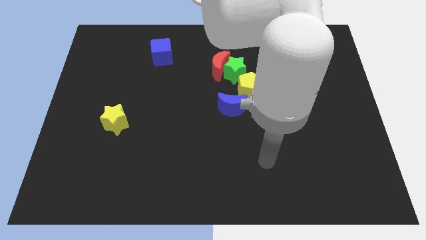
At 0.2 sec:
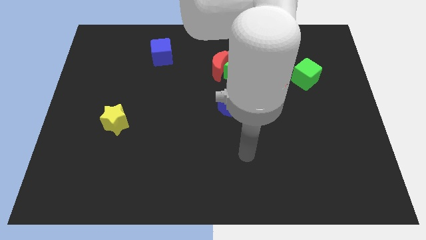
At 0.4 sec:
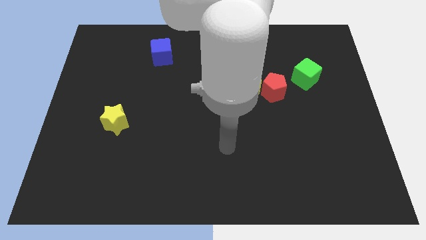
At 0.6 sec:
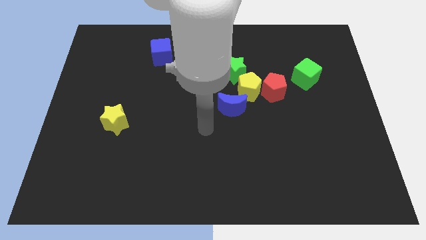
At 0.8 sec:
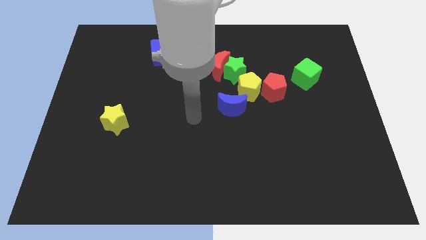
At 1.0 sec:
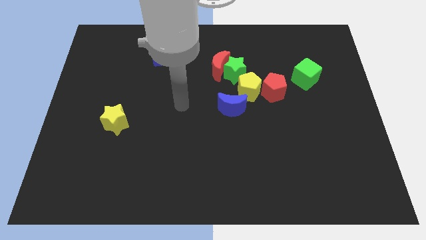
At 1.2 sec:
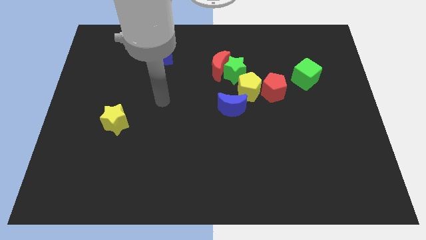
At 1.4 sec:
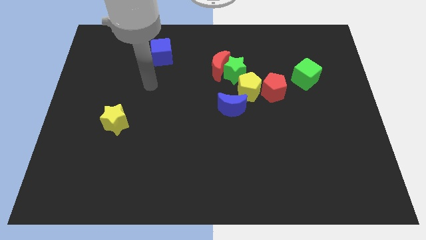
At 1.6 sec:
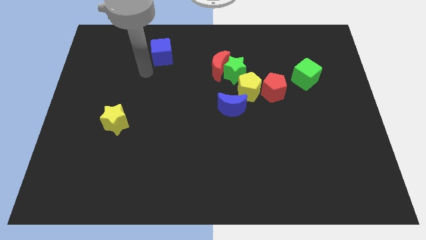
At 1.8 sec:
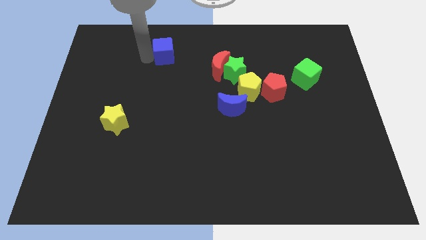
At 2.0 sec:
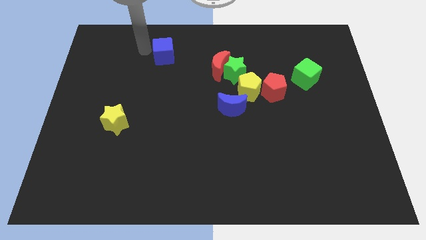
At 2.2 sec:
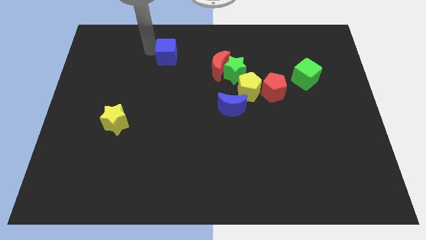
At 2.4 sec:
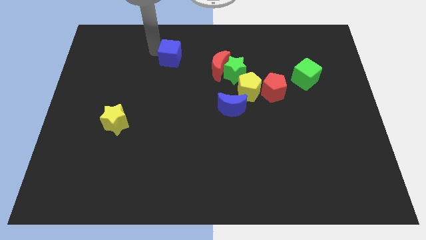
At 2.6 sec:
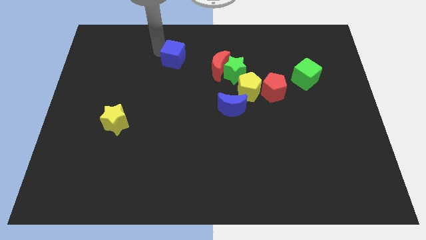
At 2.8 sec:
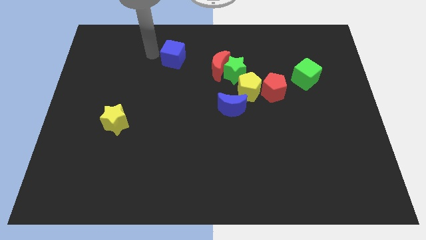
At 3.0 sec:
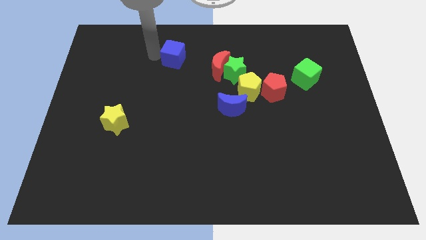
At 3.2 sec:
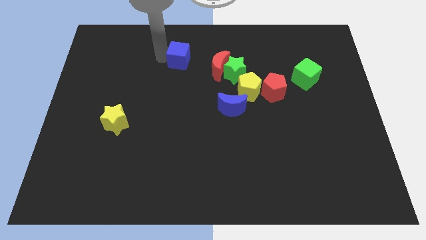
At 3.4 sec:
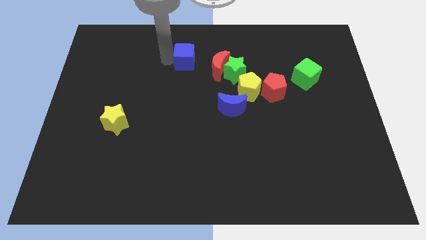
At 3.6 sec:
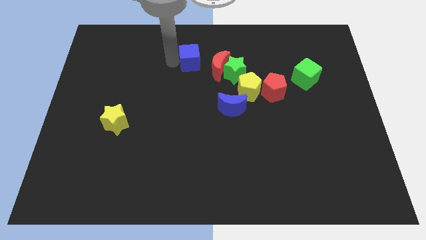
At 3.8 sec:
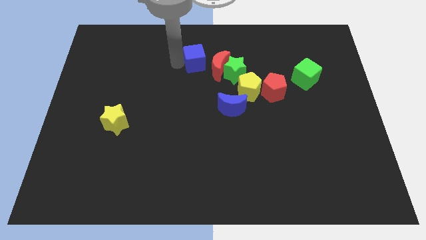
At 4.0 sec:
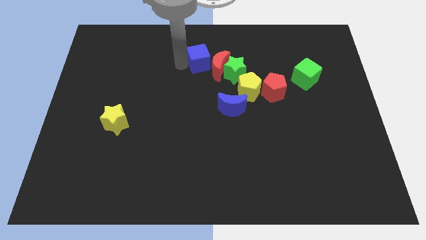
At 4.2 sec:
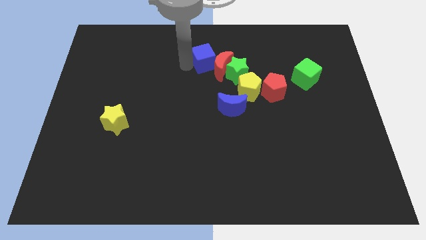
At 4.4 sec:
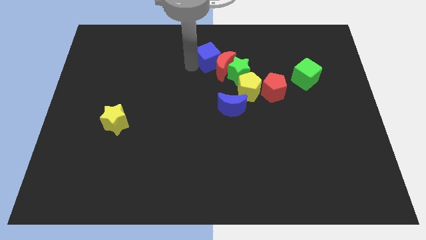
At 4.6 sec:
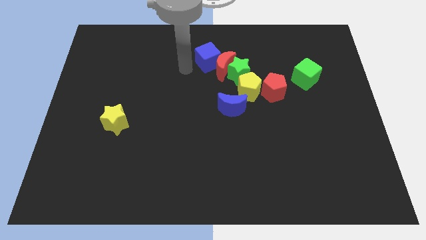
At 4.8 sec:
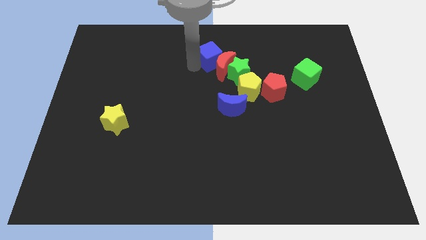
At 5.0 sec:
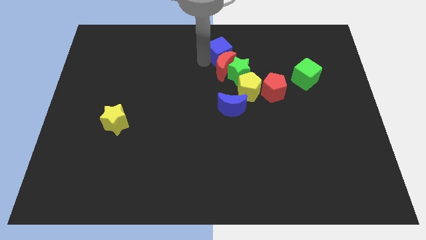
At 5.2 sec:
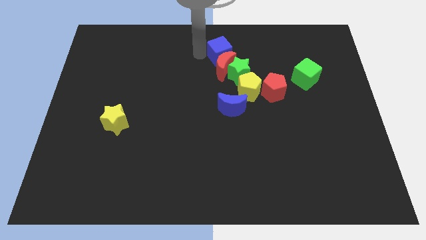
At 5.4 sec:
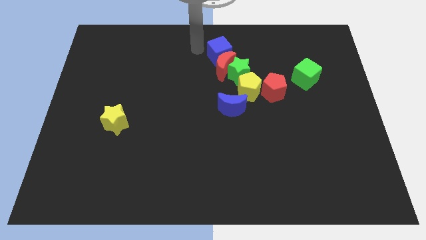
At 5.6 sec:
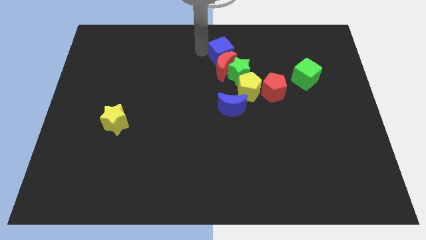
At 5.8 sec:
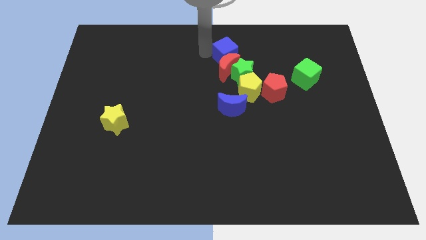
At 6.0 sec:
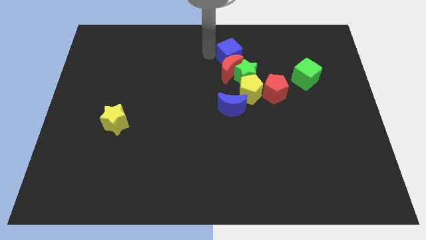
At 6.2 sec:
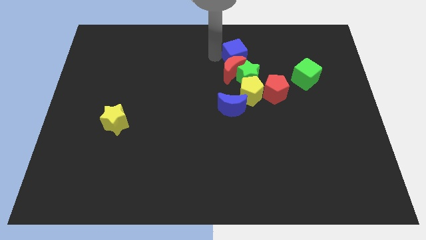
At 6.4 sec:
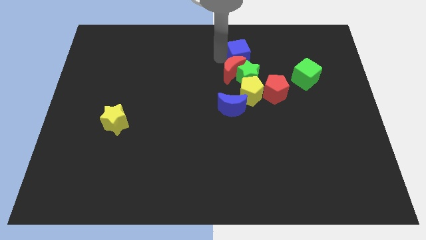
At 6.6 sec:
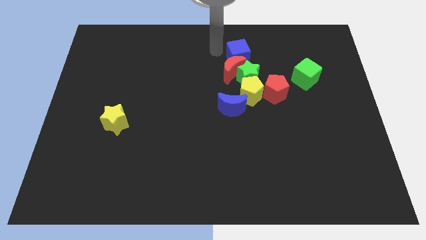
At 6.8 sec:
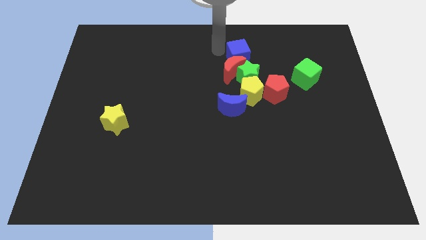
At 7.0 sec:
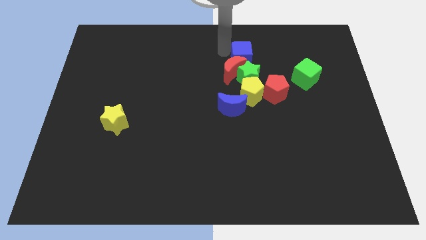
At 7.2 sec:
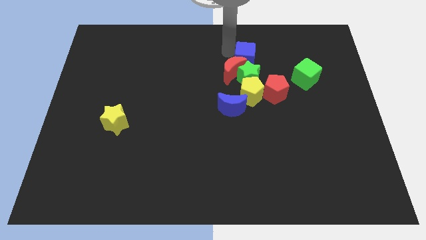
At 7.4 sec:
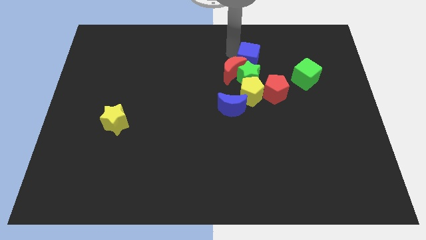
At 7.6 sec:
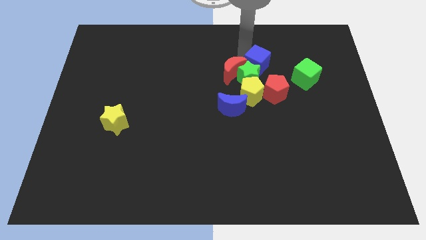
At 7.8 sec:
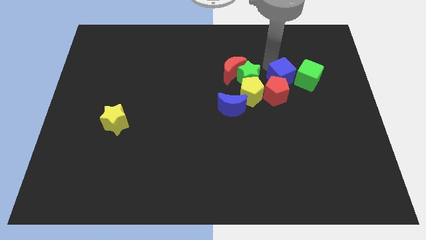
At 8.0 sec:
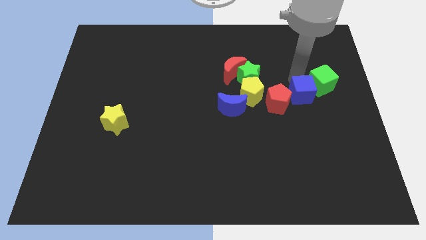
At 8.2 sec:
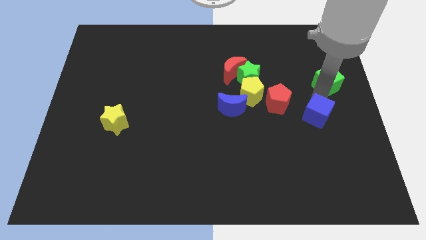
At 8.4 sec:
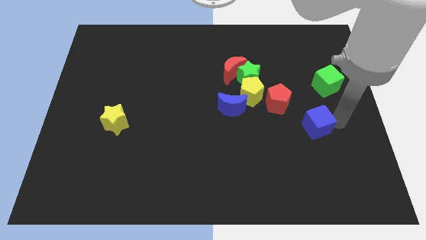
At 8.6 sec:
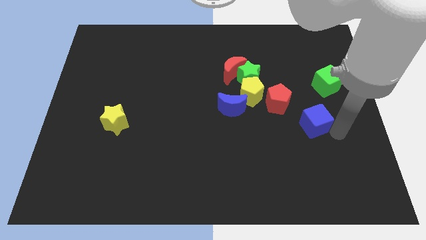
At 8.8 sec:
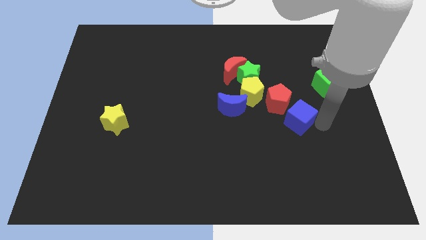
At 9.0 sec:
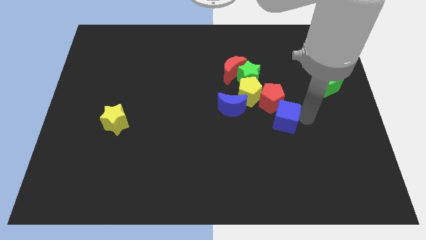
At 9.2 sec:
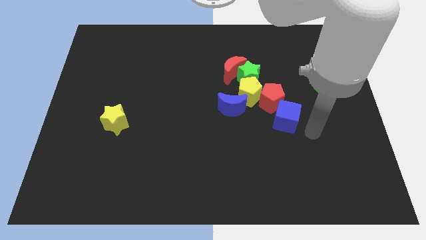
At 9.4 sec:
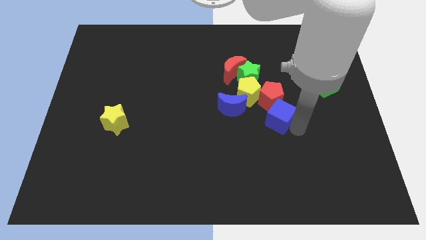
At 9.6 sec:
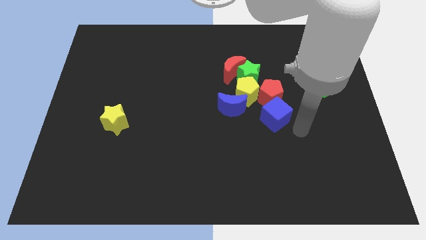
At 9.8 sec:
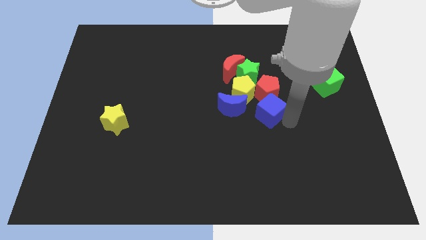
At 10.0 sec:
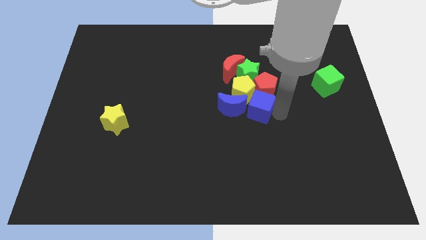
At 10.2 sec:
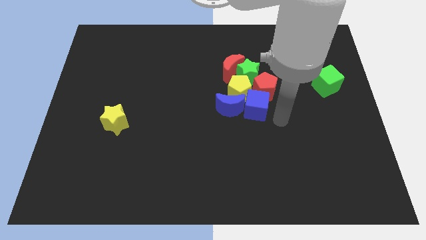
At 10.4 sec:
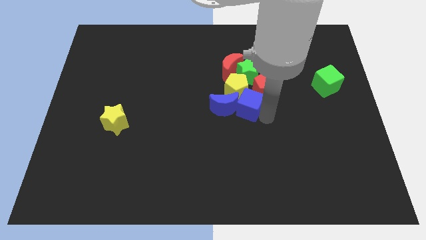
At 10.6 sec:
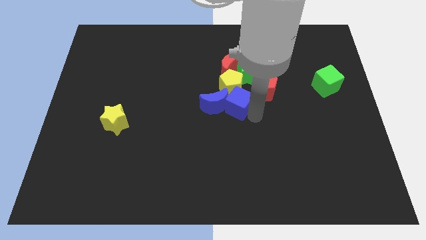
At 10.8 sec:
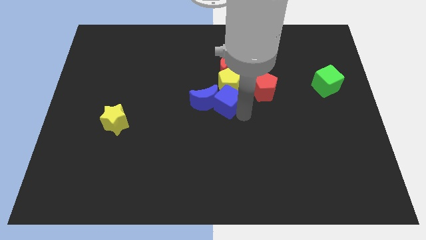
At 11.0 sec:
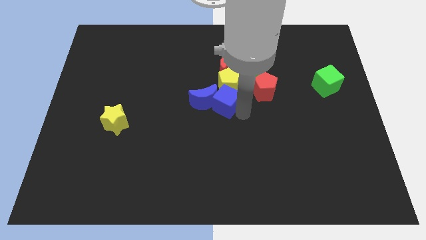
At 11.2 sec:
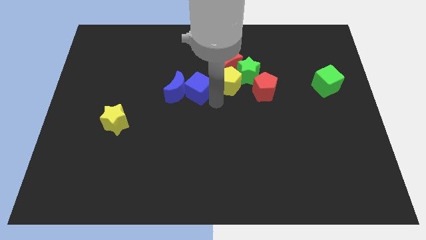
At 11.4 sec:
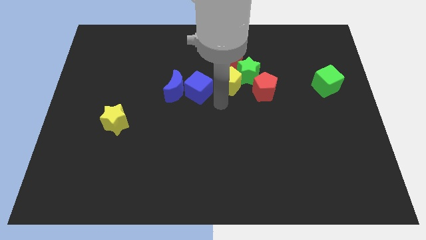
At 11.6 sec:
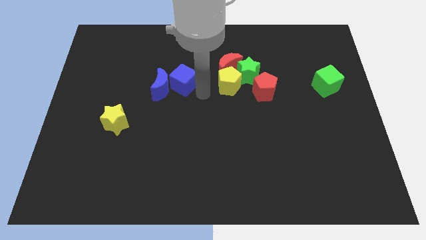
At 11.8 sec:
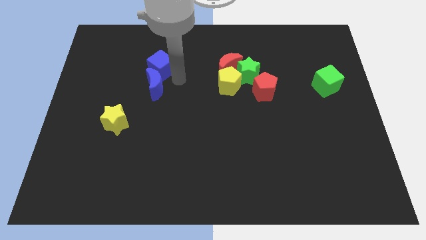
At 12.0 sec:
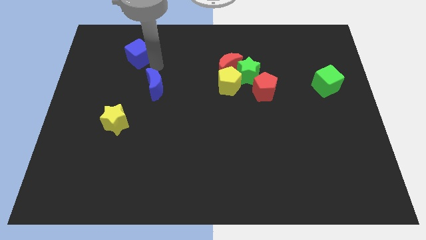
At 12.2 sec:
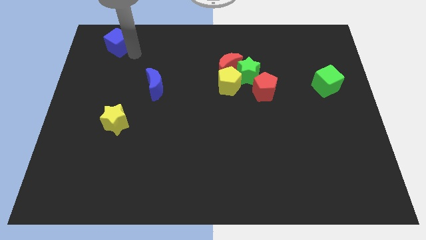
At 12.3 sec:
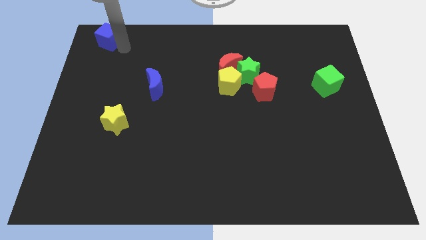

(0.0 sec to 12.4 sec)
push the blue cube to the upper left corner

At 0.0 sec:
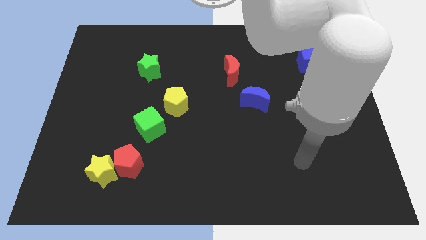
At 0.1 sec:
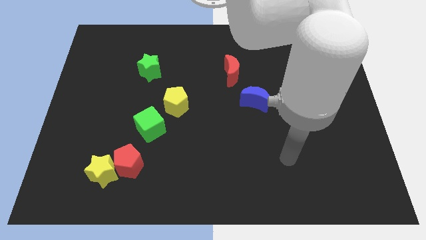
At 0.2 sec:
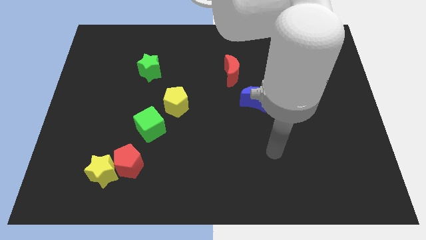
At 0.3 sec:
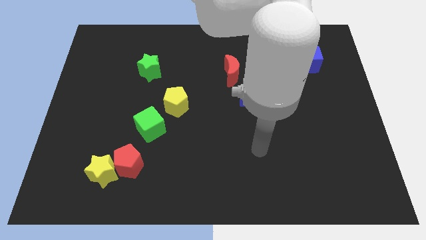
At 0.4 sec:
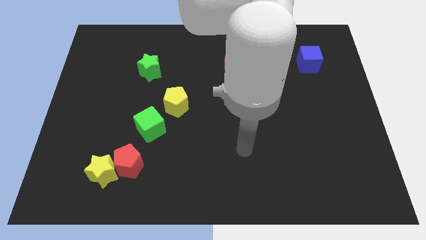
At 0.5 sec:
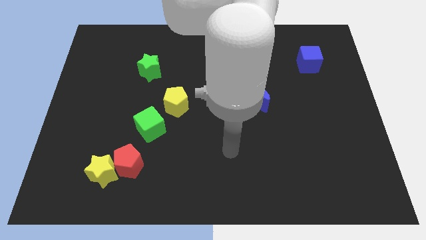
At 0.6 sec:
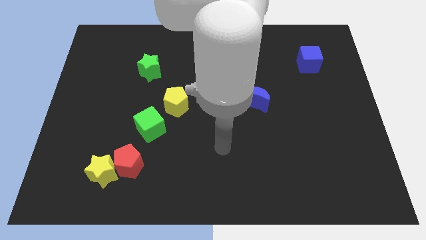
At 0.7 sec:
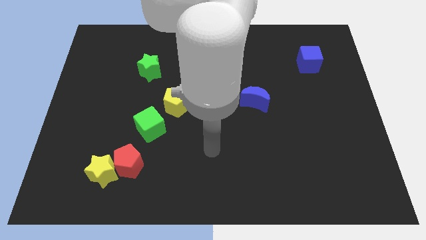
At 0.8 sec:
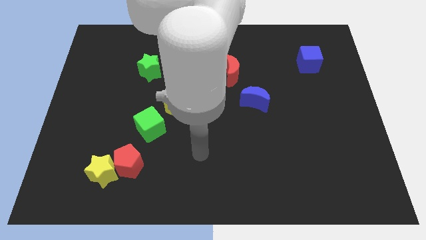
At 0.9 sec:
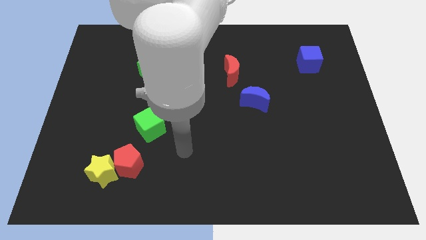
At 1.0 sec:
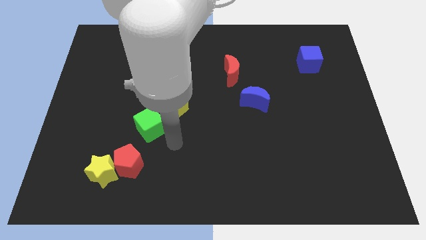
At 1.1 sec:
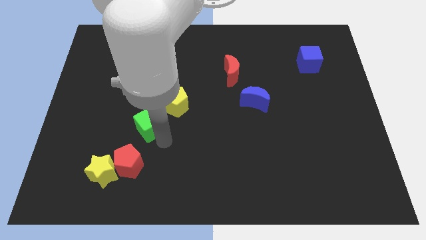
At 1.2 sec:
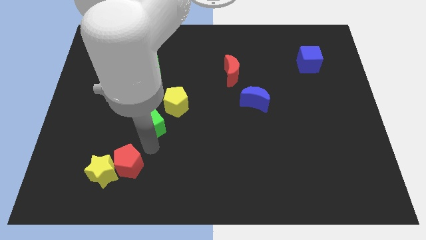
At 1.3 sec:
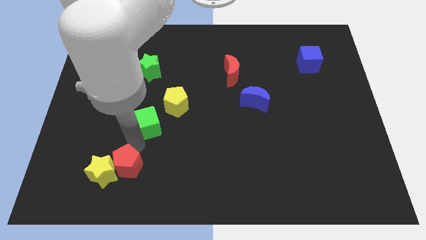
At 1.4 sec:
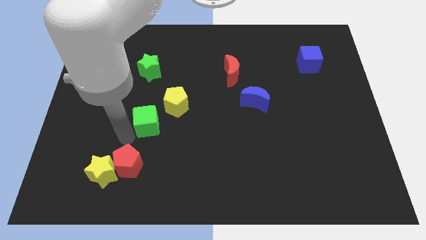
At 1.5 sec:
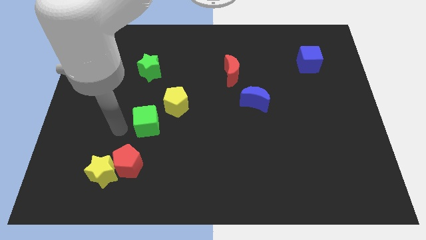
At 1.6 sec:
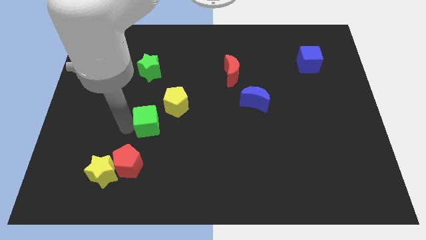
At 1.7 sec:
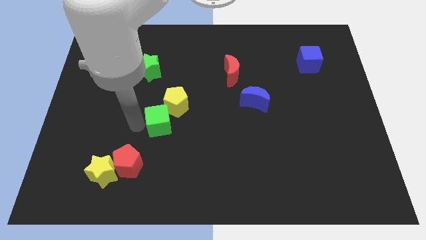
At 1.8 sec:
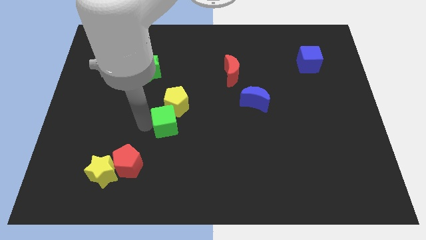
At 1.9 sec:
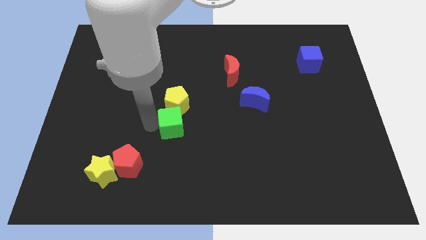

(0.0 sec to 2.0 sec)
push the green cube to the middle of the board
